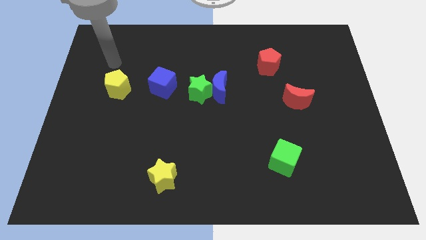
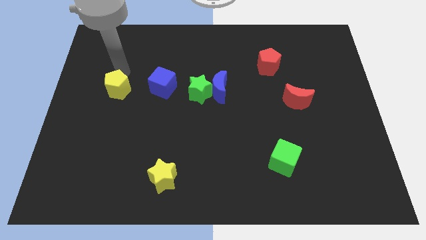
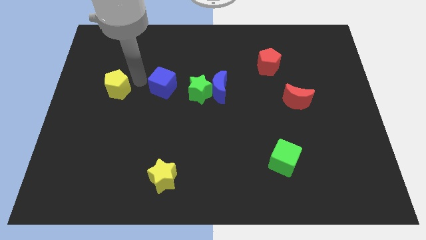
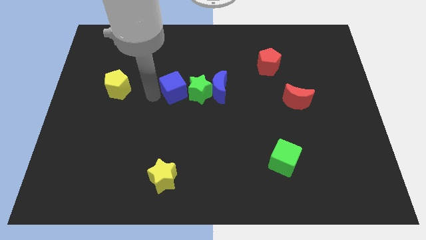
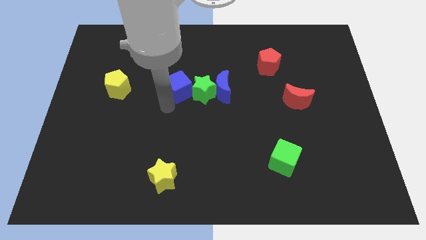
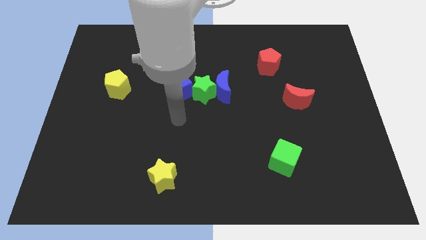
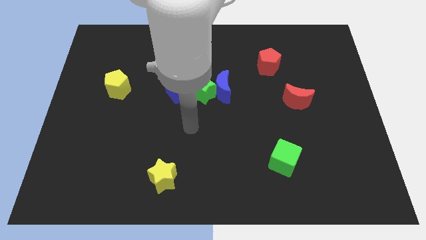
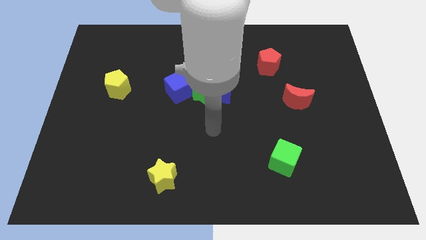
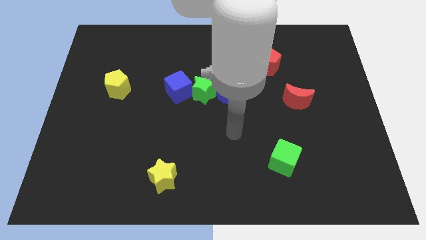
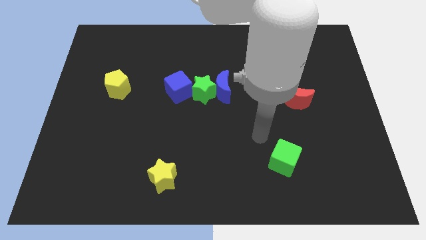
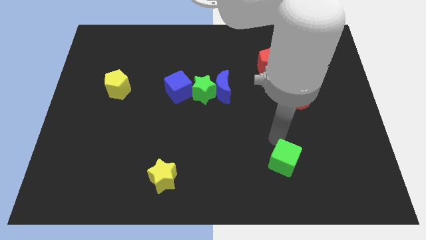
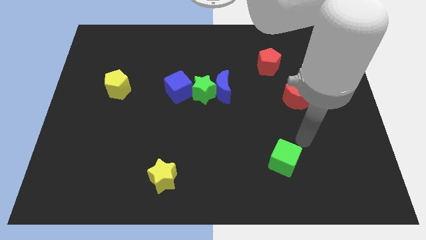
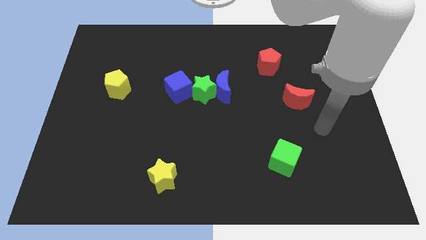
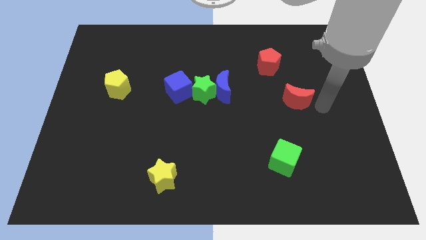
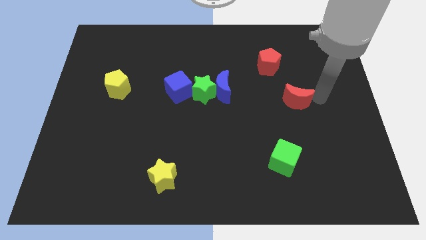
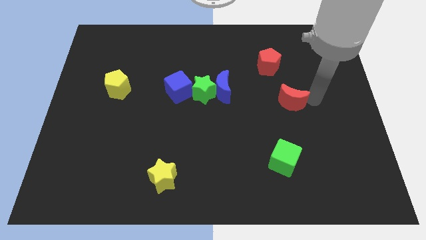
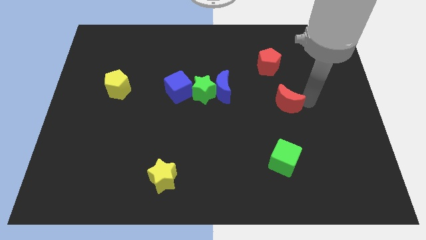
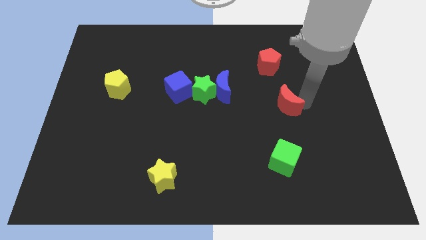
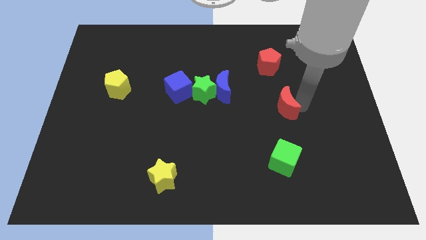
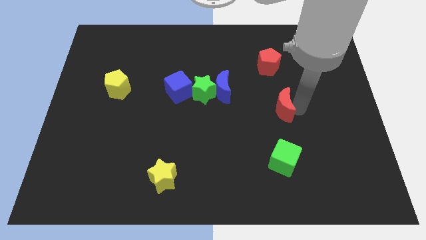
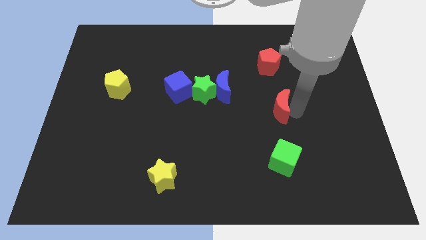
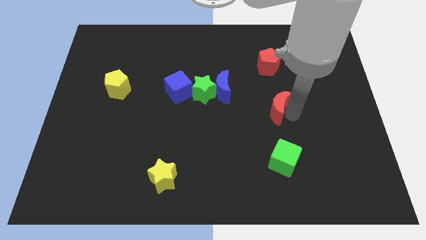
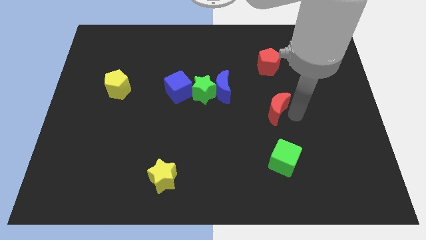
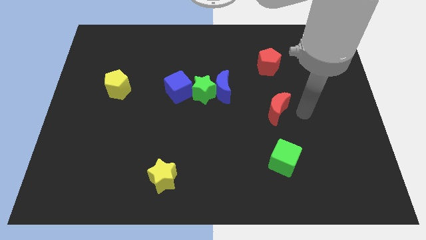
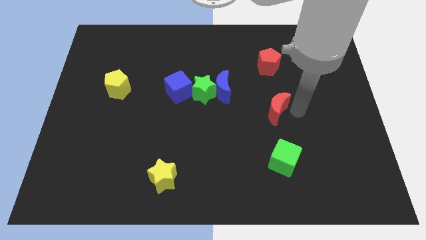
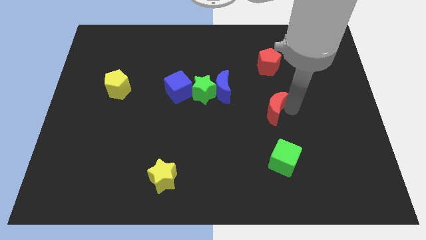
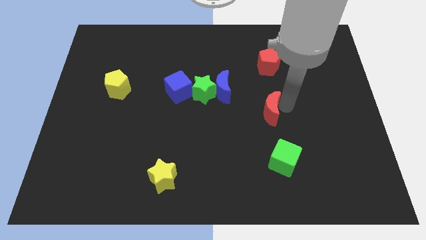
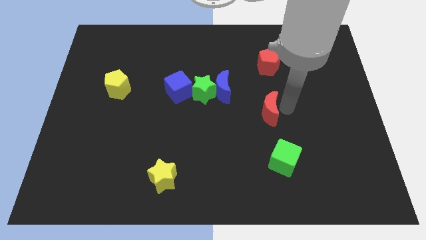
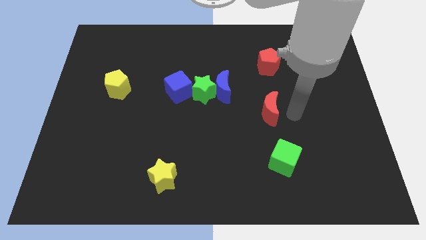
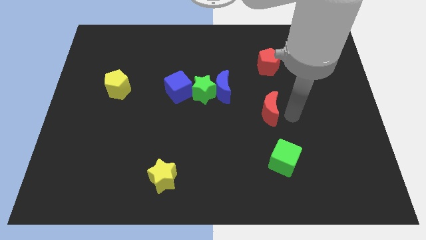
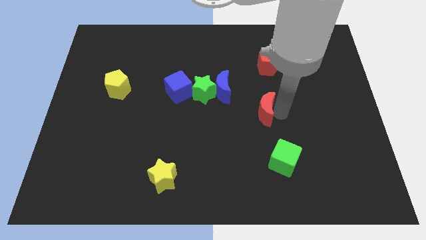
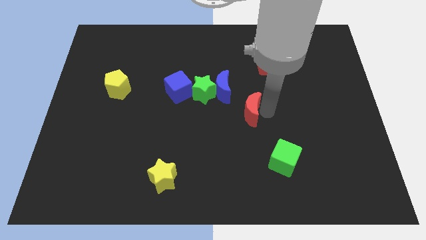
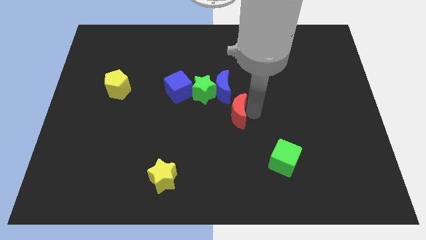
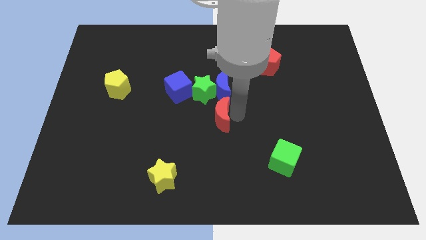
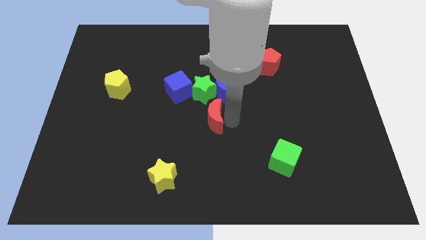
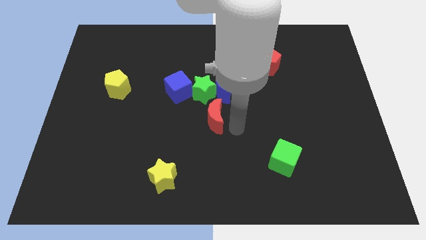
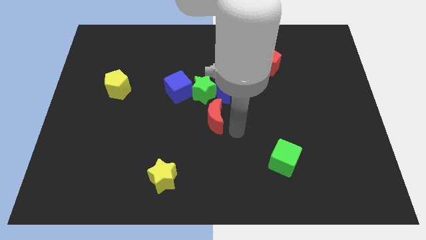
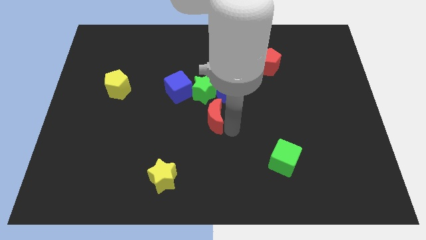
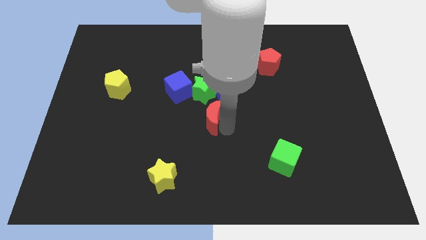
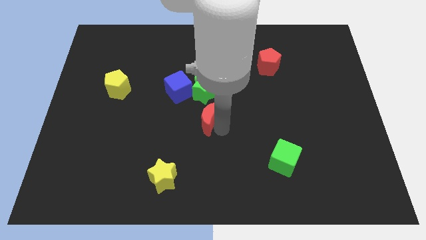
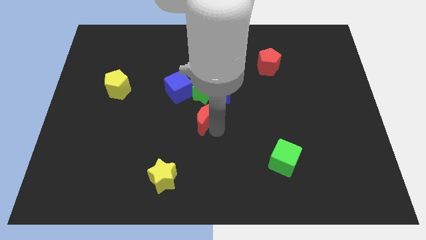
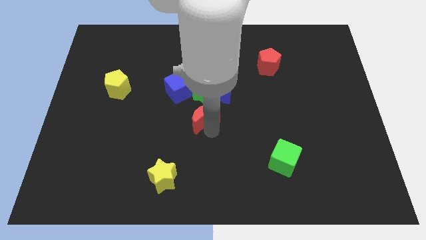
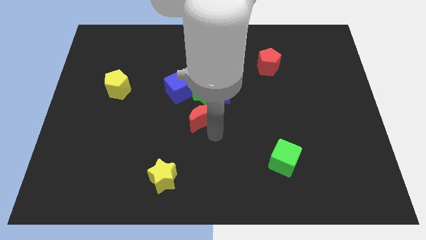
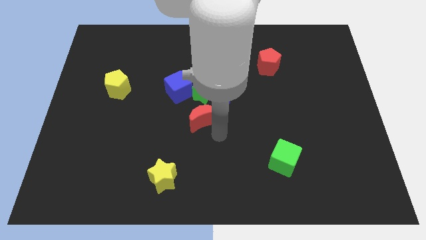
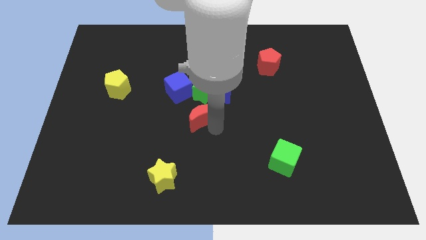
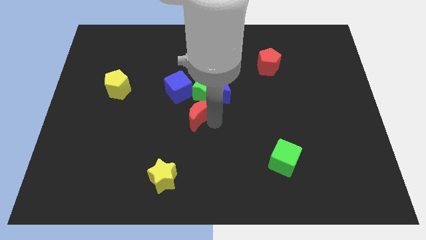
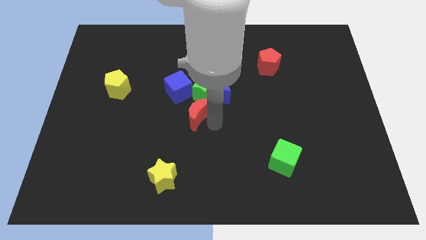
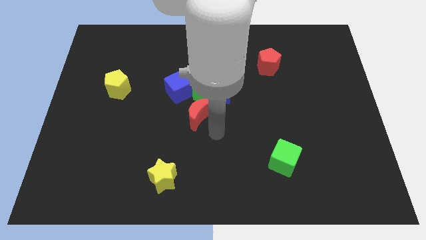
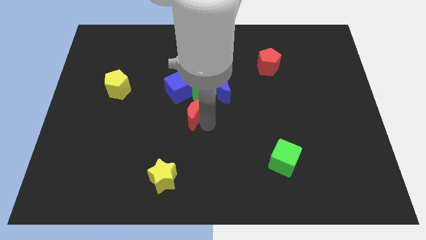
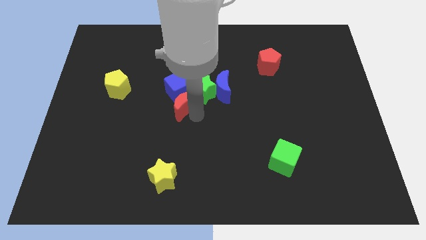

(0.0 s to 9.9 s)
put the red moon close to the blue cube

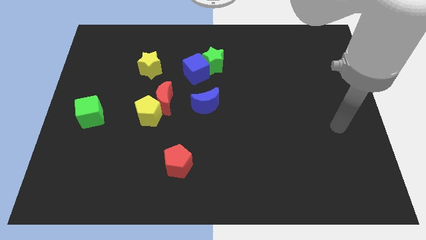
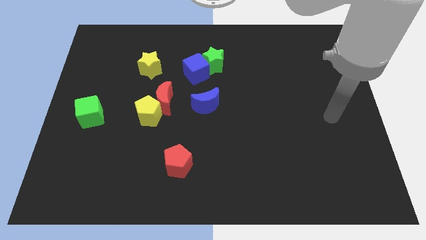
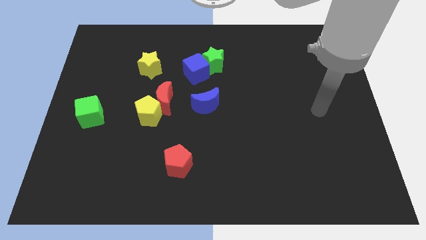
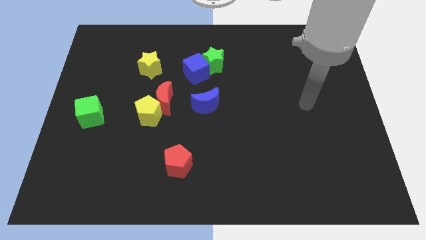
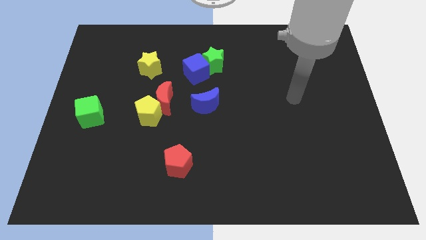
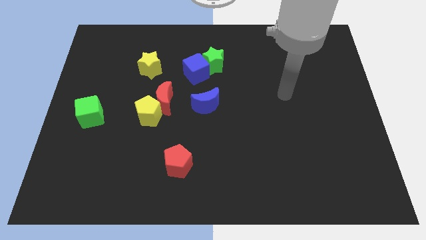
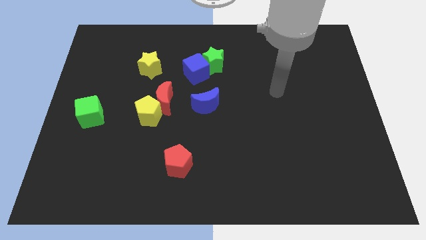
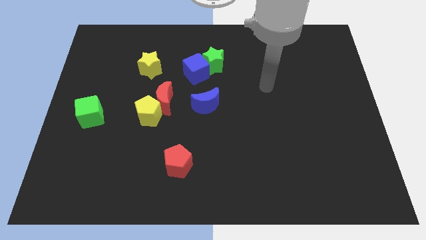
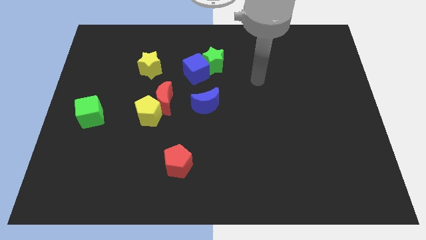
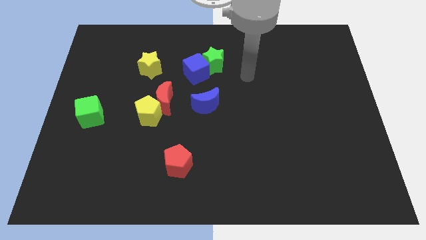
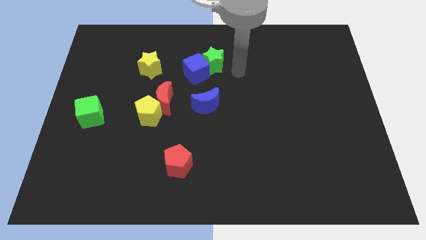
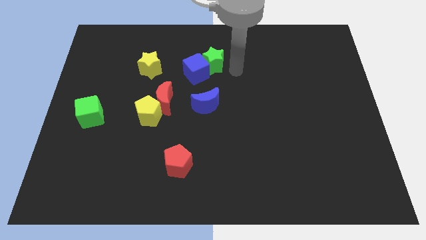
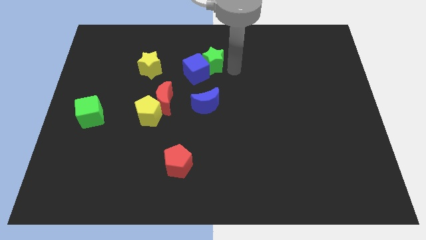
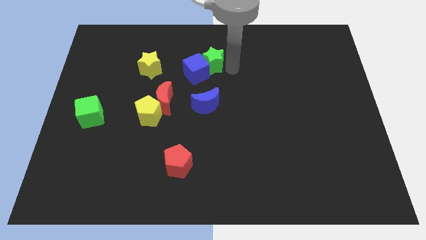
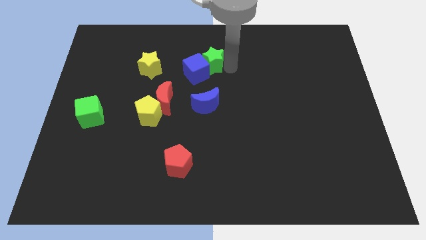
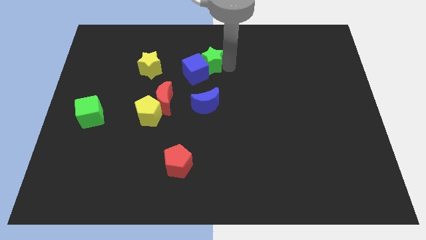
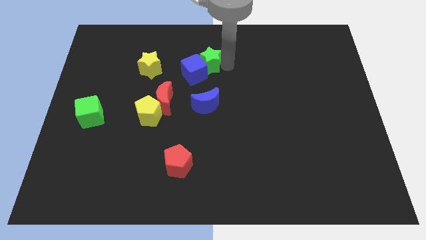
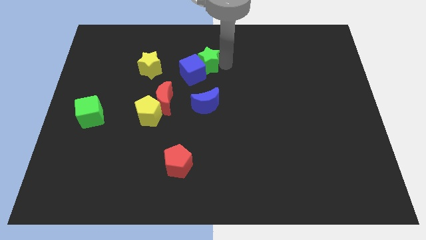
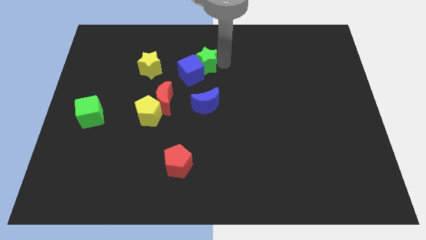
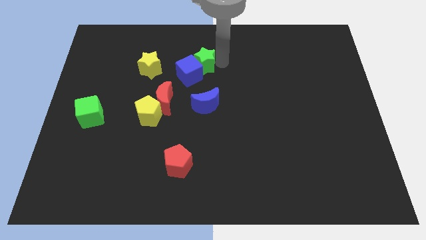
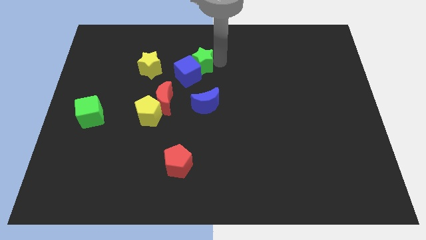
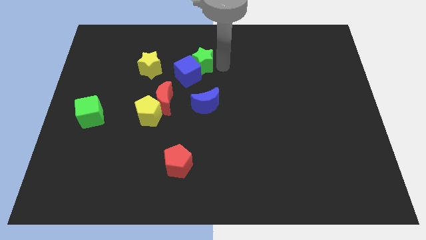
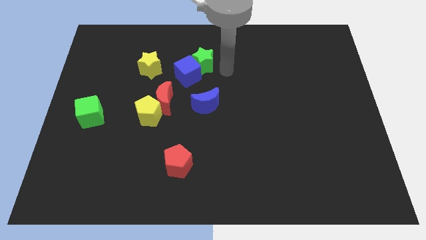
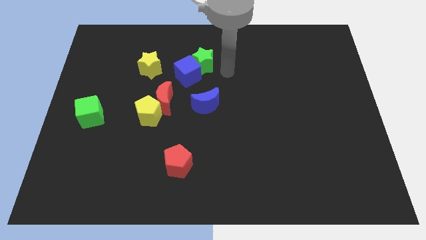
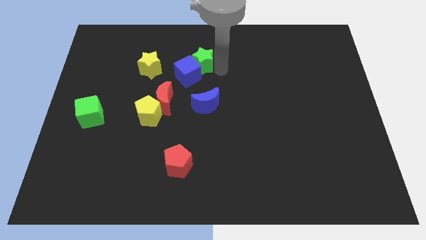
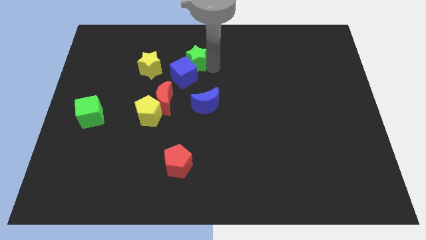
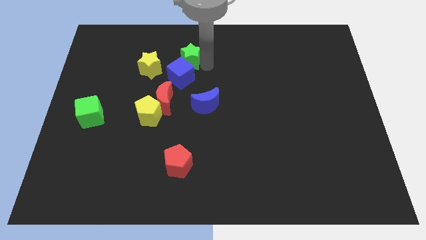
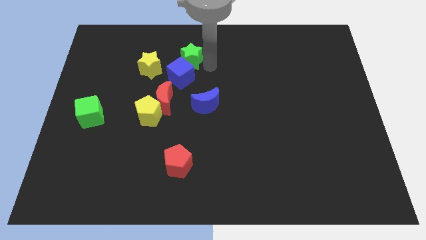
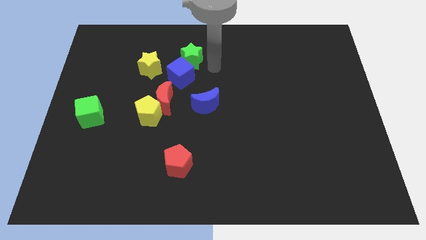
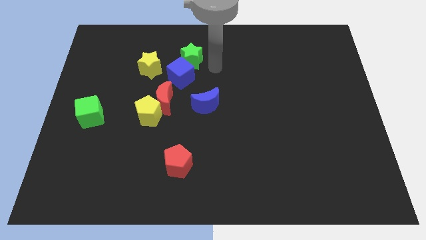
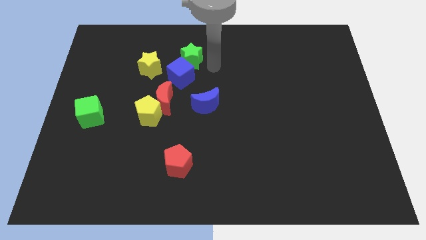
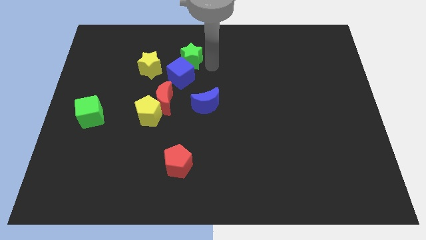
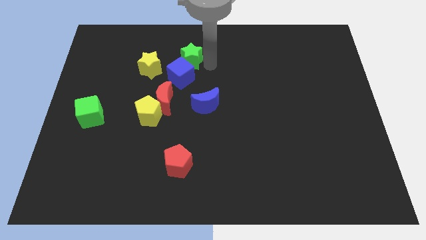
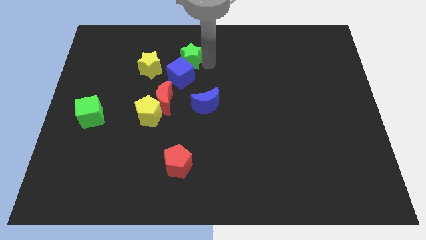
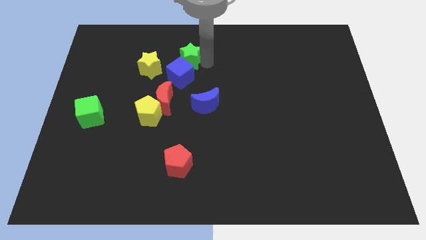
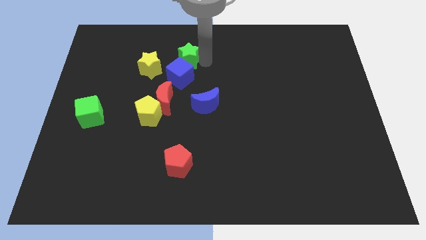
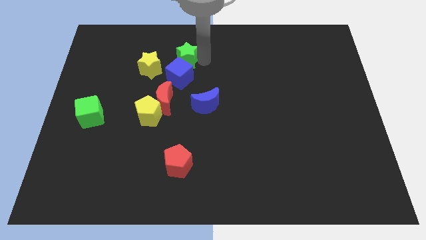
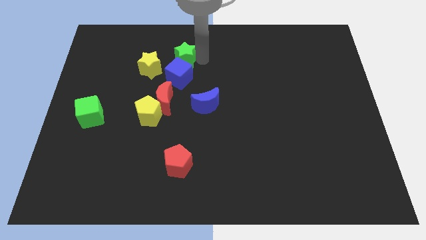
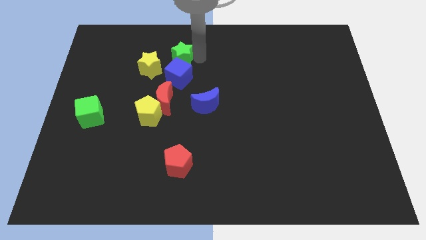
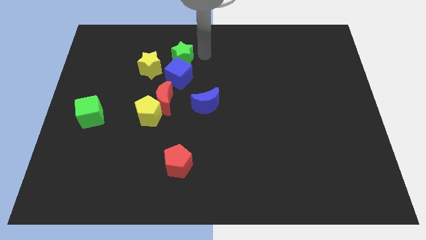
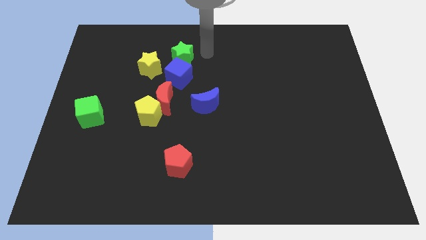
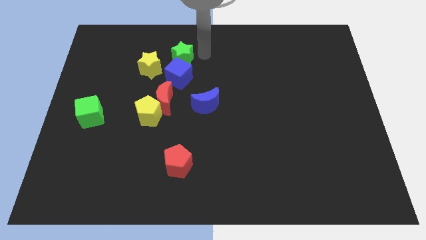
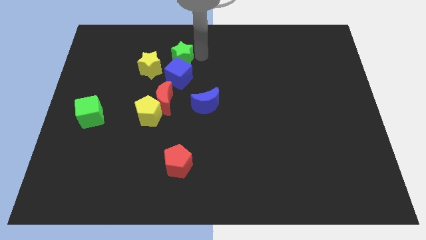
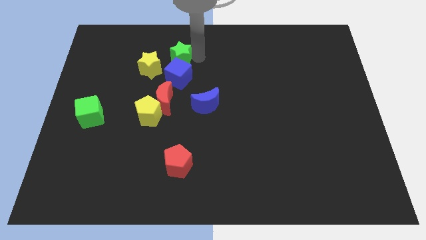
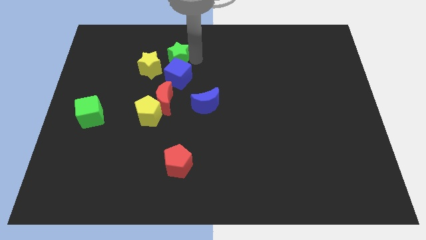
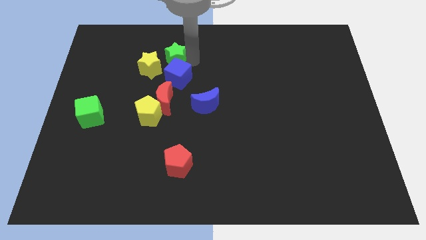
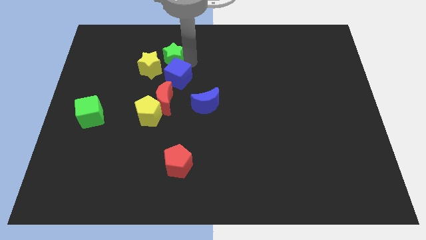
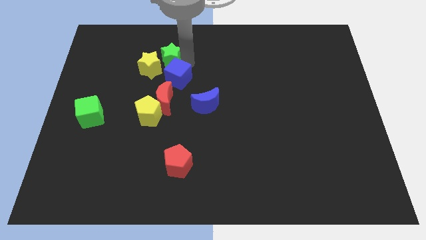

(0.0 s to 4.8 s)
push the green star to the yellow star
